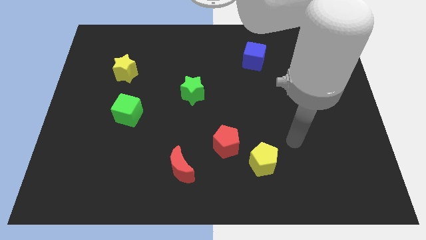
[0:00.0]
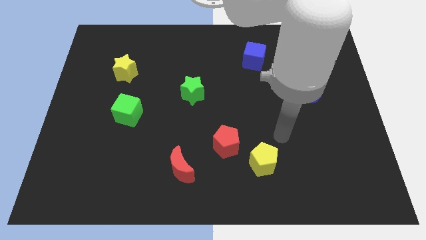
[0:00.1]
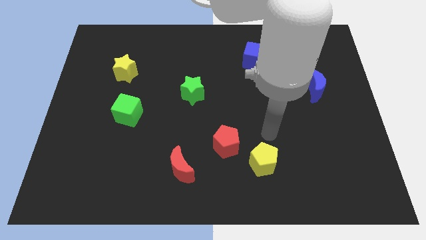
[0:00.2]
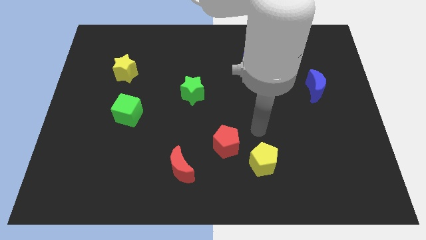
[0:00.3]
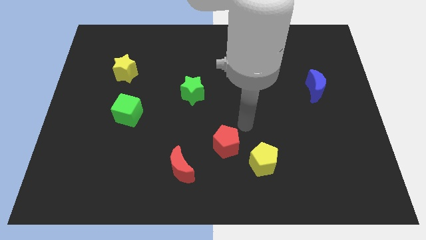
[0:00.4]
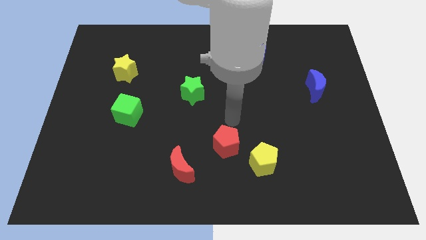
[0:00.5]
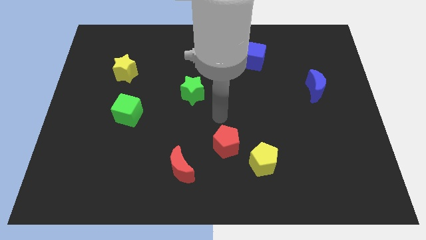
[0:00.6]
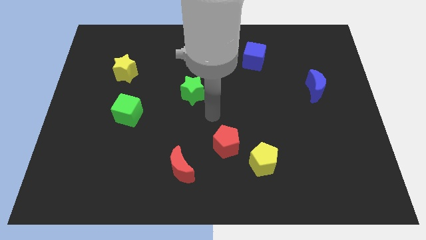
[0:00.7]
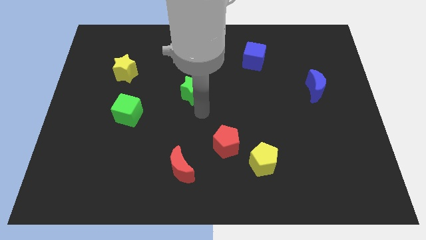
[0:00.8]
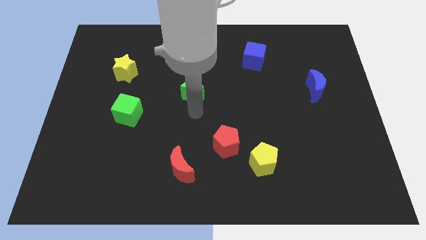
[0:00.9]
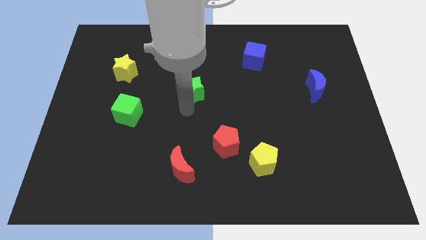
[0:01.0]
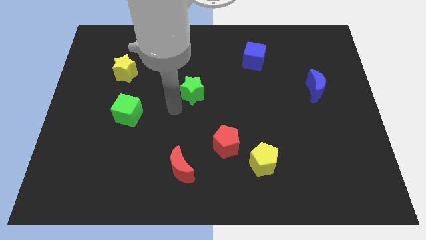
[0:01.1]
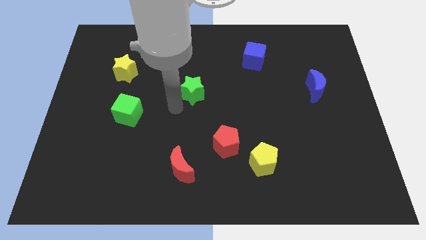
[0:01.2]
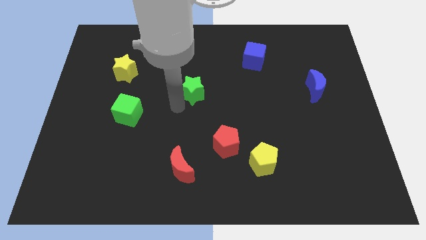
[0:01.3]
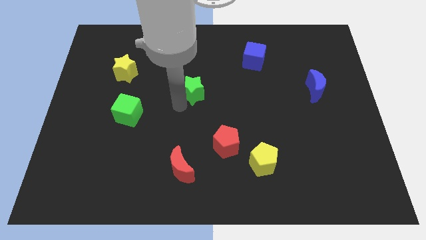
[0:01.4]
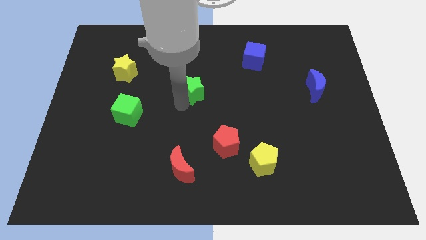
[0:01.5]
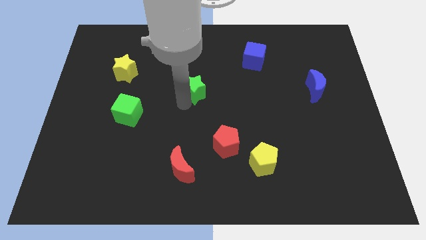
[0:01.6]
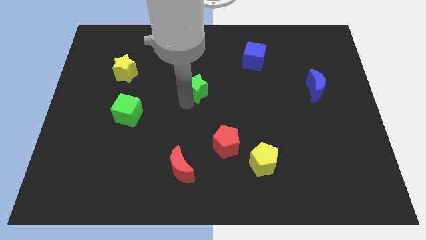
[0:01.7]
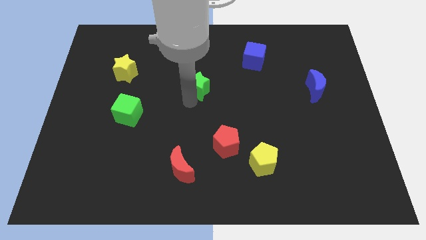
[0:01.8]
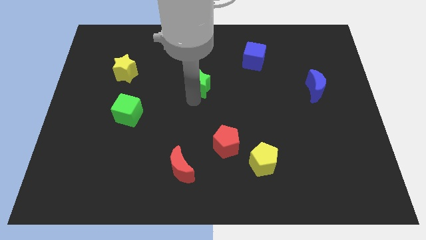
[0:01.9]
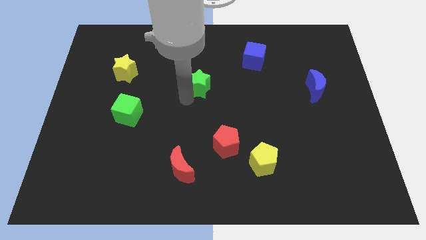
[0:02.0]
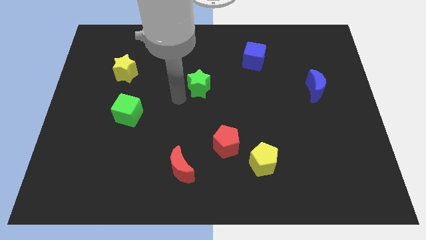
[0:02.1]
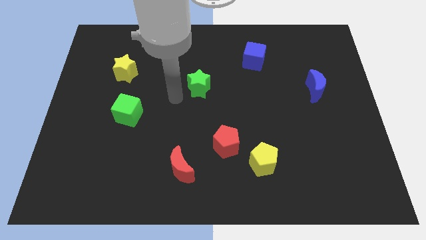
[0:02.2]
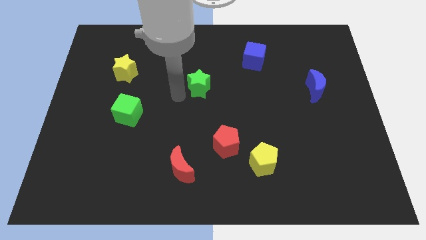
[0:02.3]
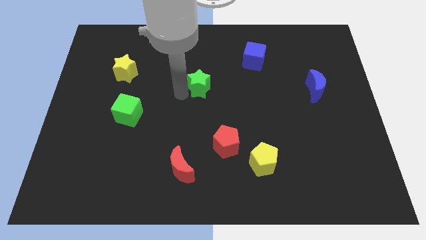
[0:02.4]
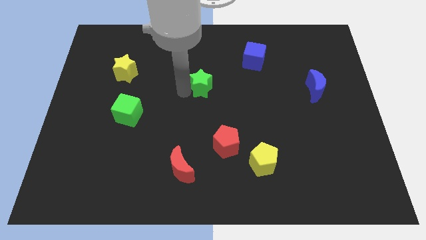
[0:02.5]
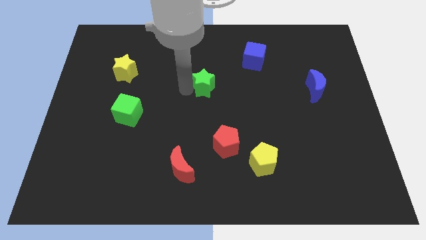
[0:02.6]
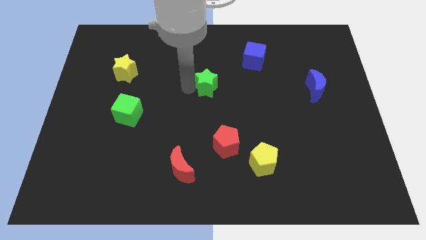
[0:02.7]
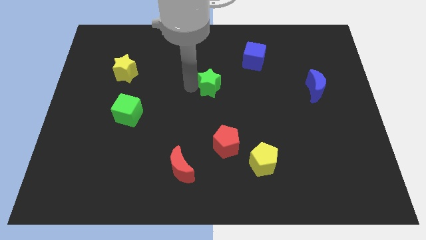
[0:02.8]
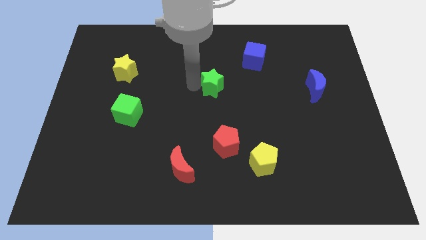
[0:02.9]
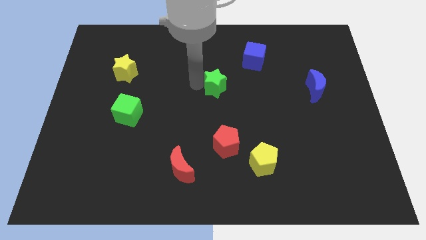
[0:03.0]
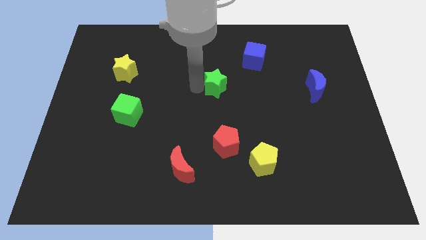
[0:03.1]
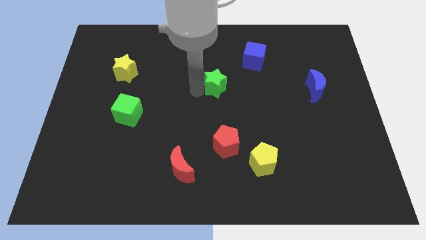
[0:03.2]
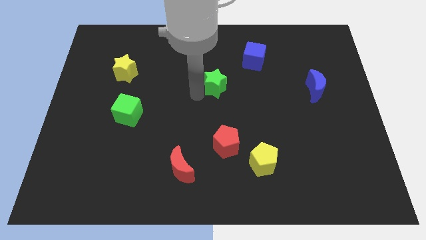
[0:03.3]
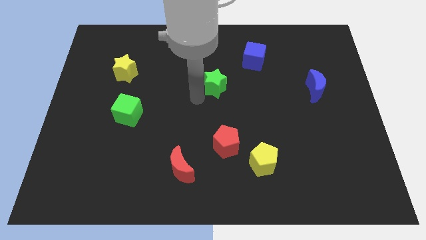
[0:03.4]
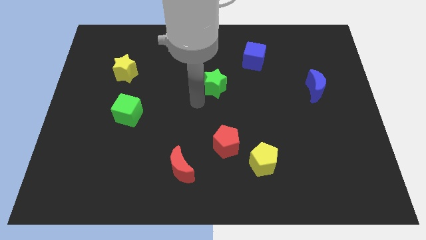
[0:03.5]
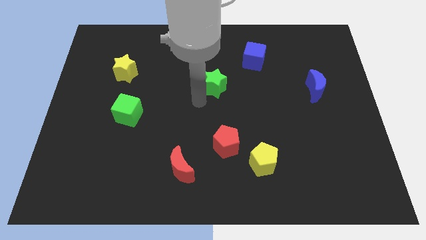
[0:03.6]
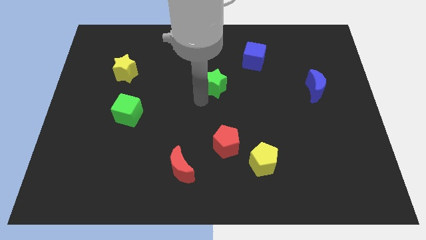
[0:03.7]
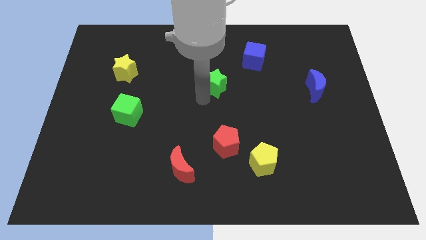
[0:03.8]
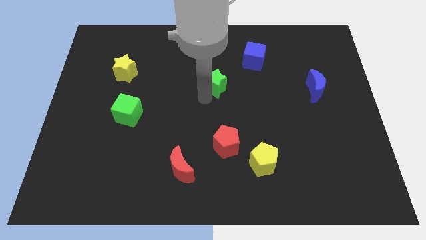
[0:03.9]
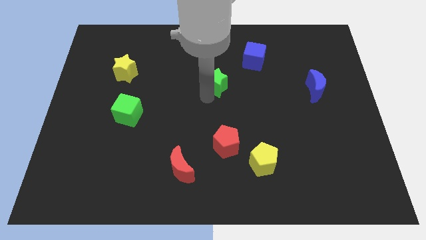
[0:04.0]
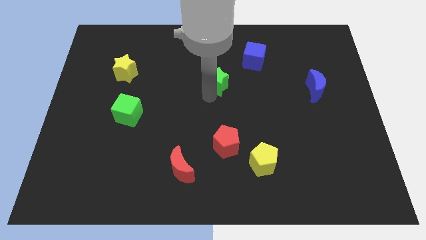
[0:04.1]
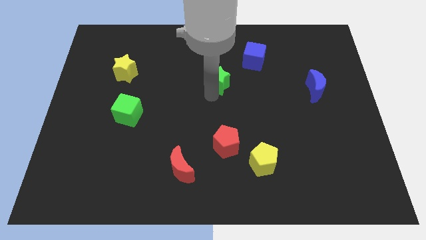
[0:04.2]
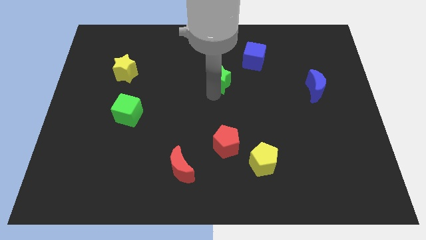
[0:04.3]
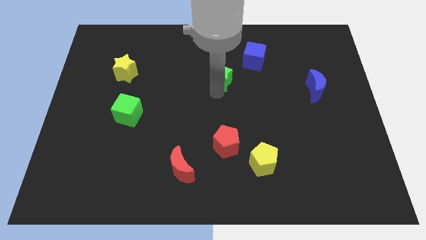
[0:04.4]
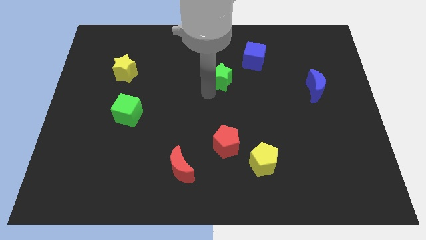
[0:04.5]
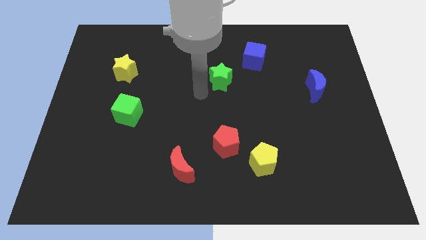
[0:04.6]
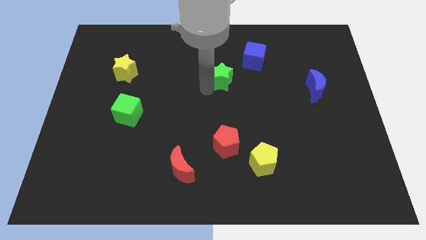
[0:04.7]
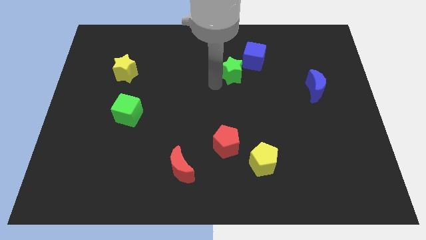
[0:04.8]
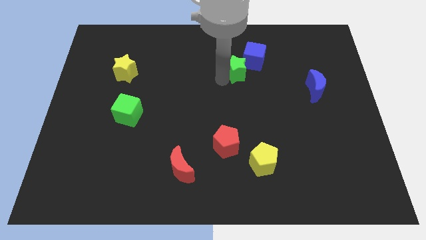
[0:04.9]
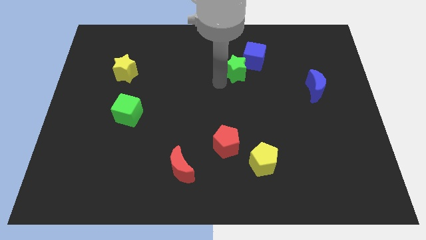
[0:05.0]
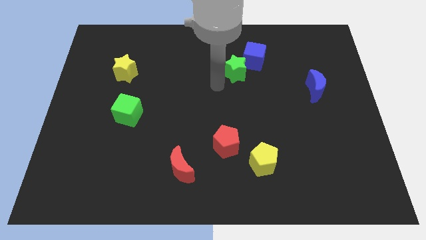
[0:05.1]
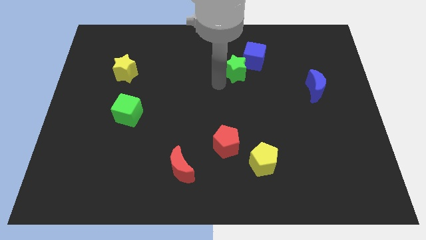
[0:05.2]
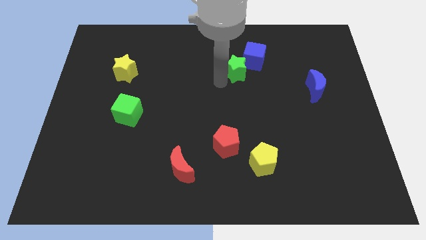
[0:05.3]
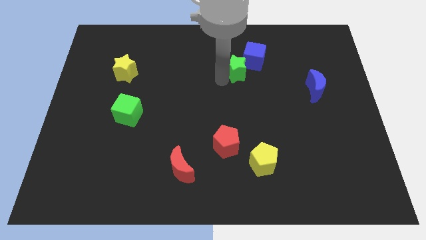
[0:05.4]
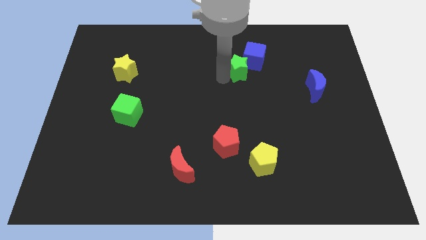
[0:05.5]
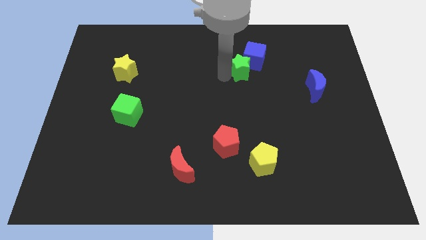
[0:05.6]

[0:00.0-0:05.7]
move the green star to the blue cube

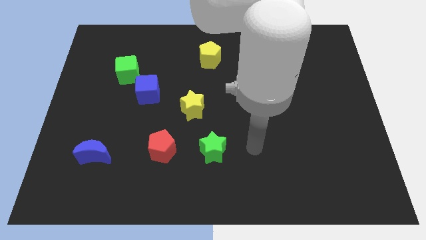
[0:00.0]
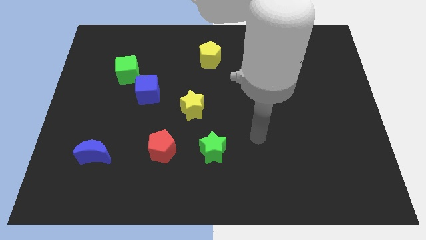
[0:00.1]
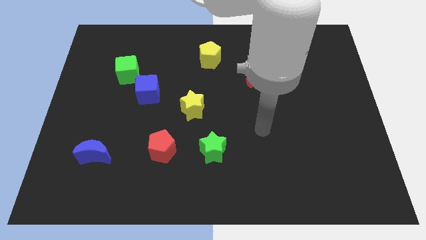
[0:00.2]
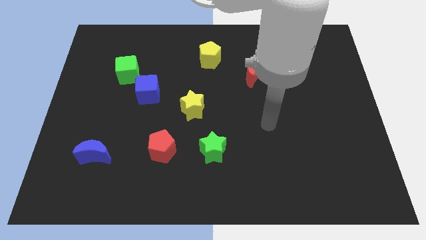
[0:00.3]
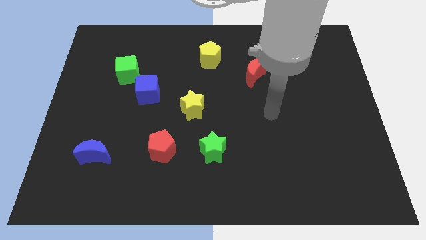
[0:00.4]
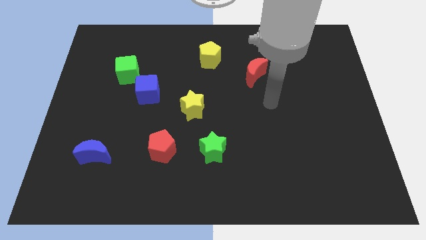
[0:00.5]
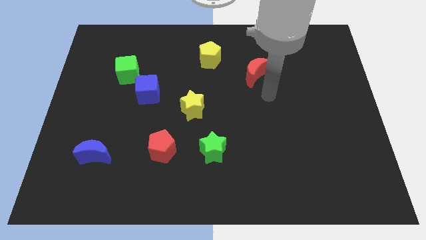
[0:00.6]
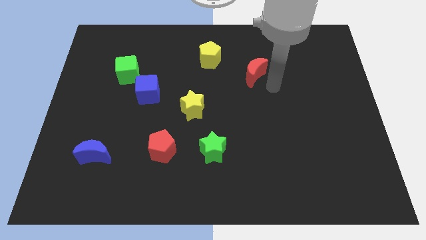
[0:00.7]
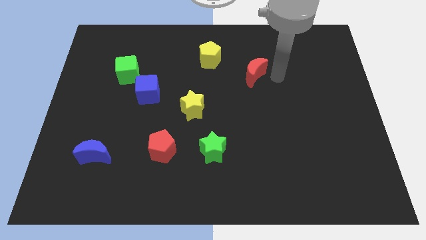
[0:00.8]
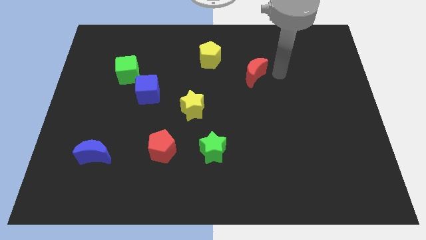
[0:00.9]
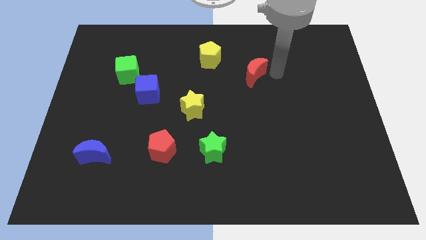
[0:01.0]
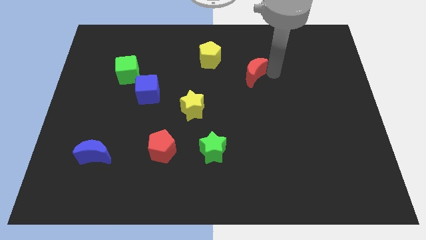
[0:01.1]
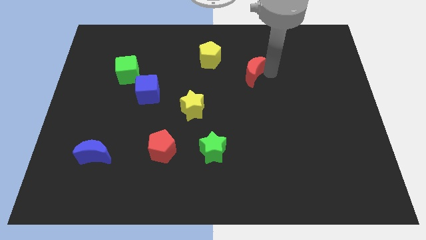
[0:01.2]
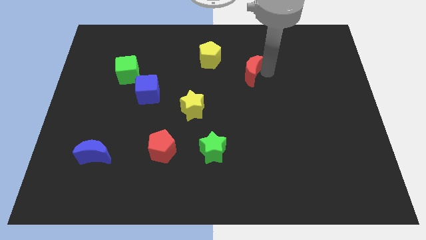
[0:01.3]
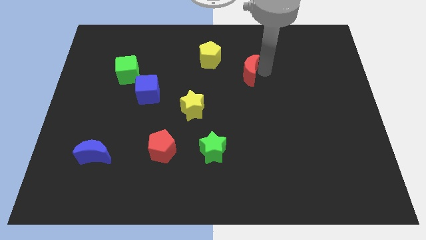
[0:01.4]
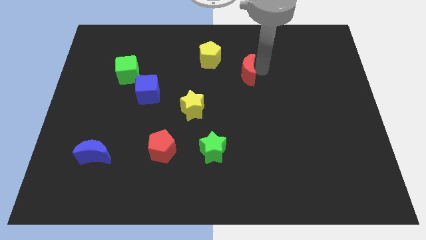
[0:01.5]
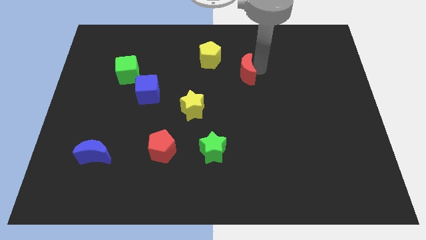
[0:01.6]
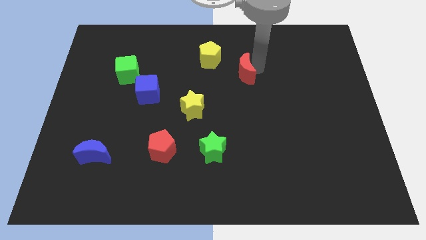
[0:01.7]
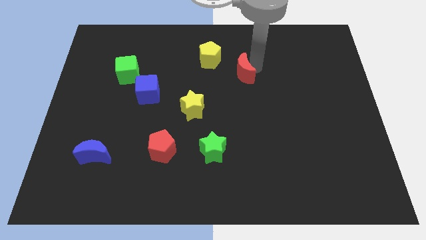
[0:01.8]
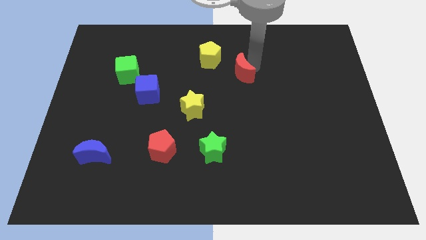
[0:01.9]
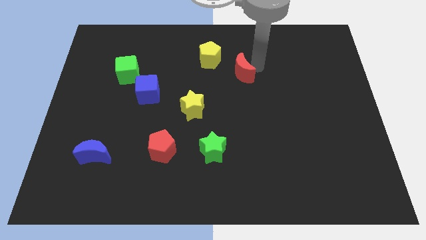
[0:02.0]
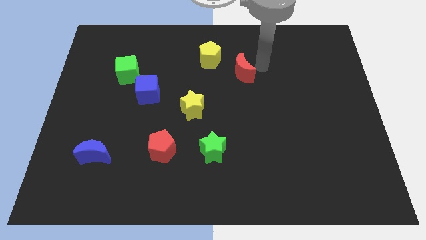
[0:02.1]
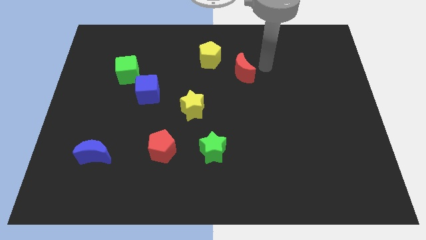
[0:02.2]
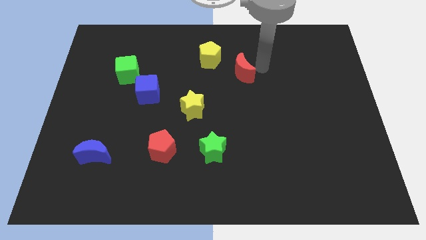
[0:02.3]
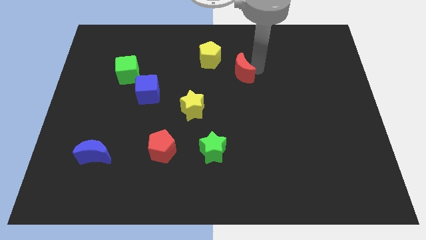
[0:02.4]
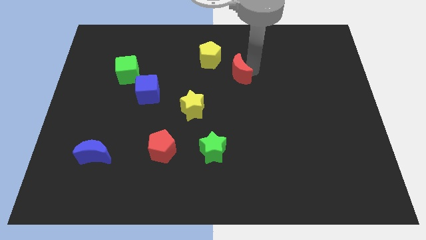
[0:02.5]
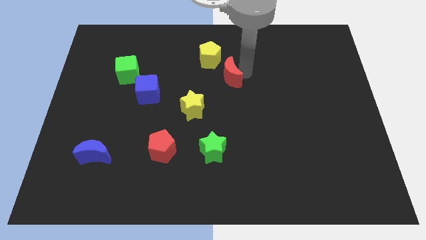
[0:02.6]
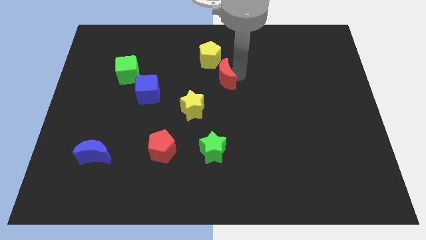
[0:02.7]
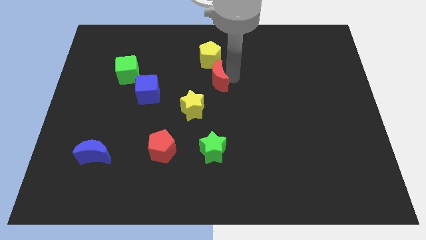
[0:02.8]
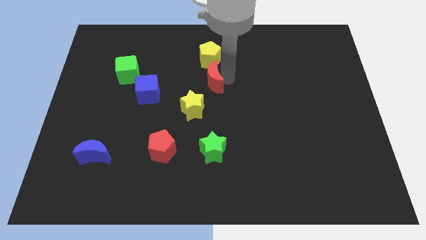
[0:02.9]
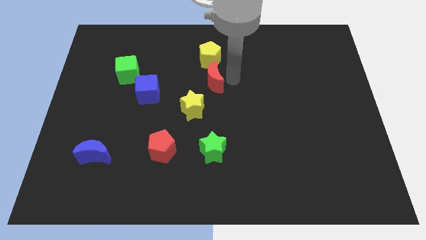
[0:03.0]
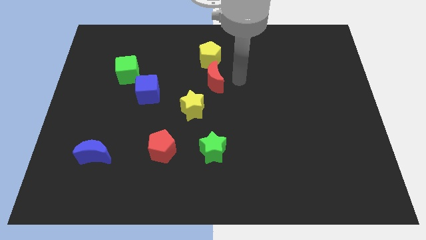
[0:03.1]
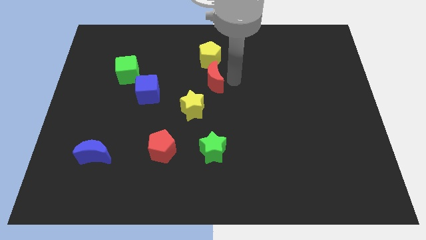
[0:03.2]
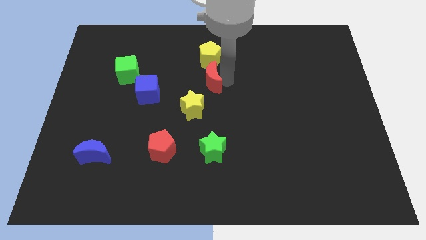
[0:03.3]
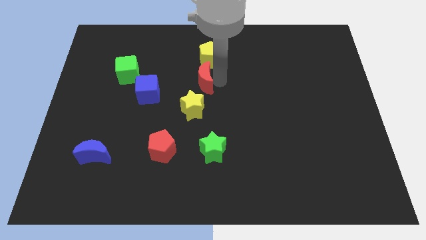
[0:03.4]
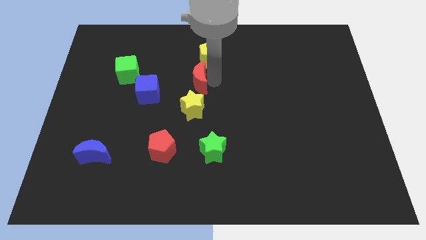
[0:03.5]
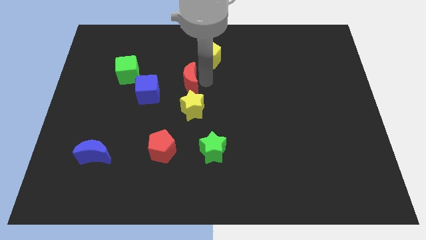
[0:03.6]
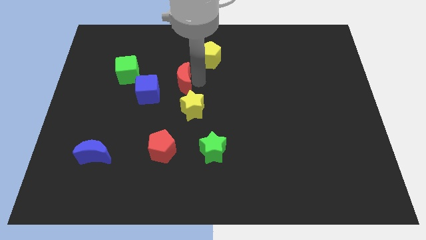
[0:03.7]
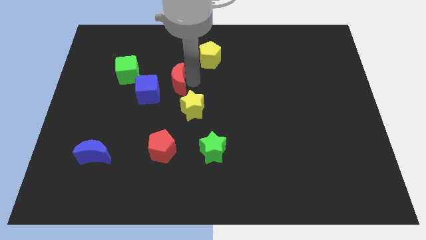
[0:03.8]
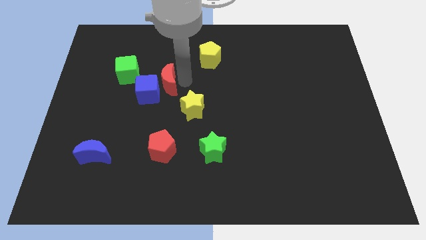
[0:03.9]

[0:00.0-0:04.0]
push the red moon towards the blue cube
